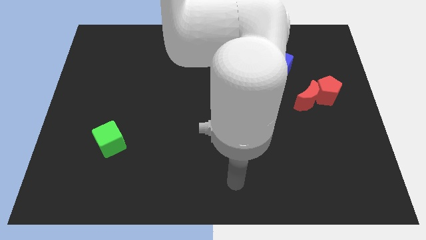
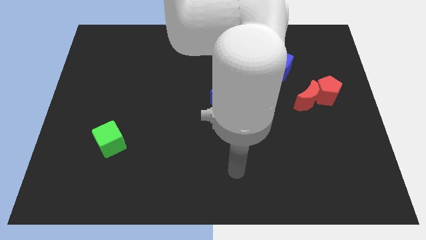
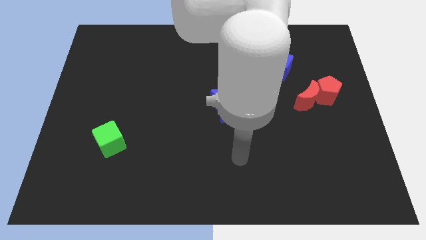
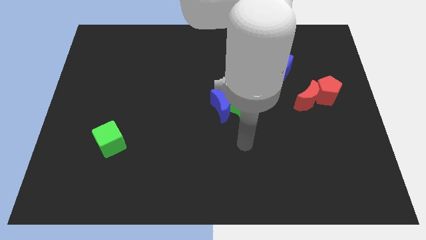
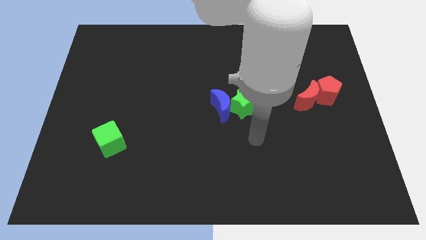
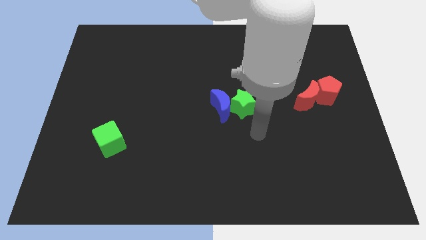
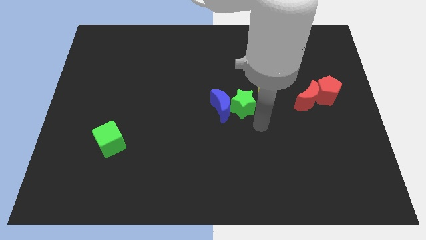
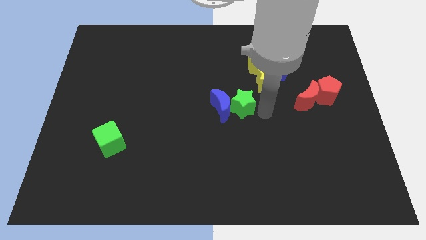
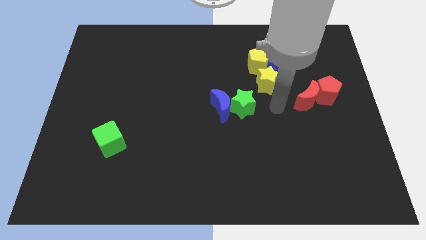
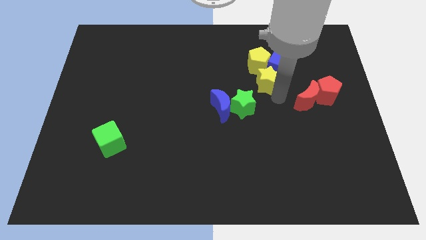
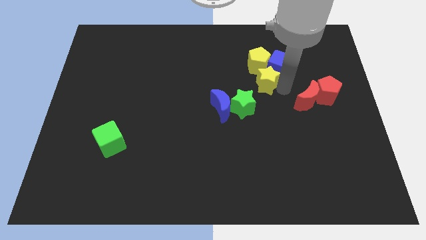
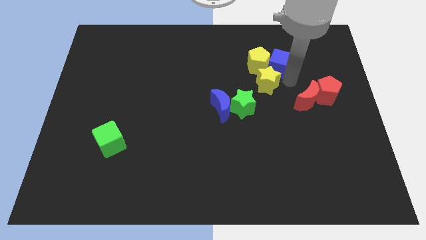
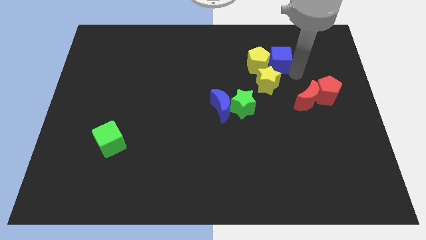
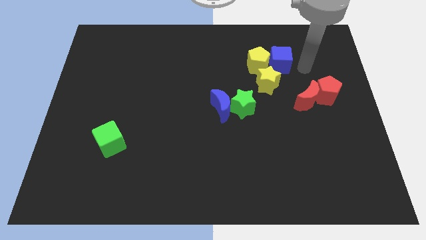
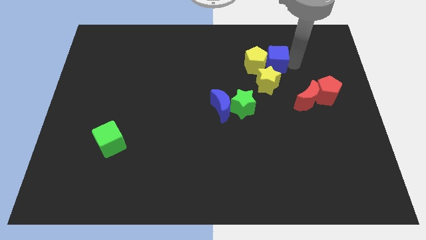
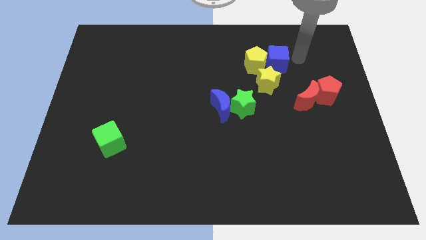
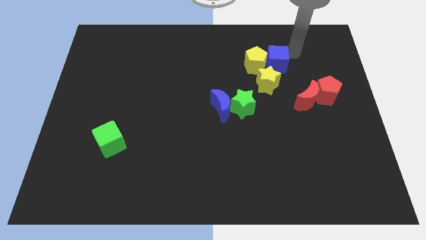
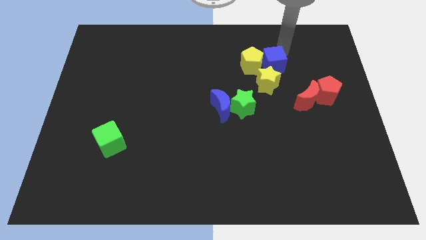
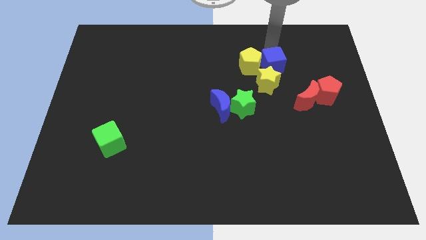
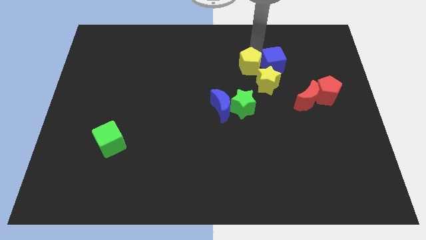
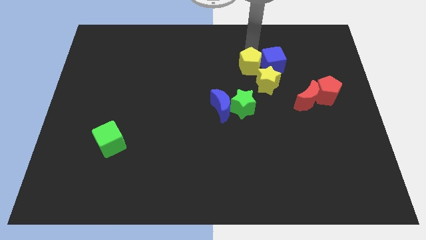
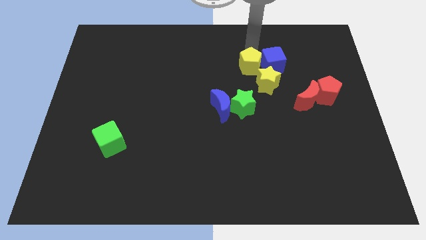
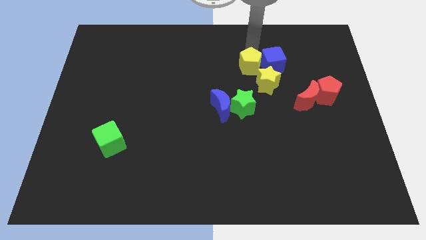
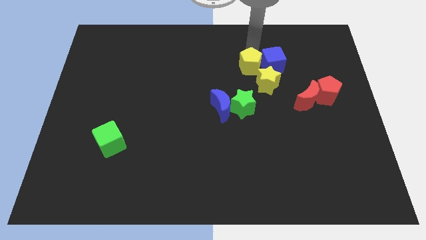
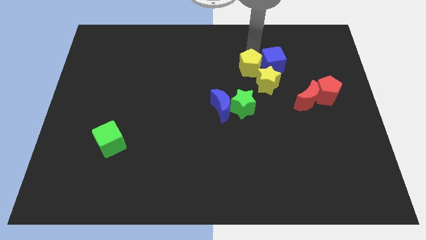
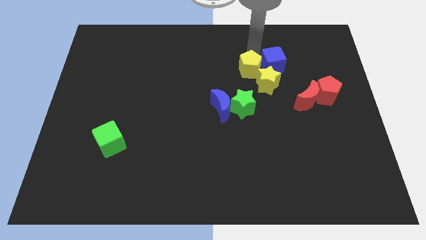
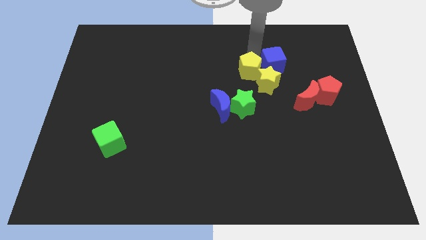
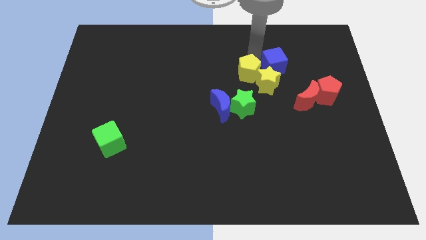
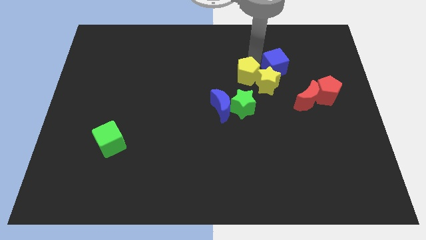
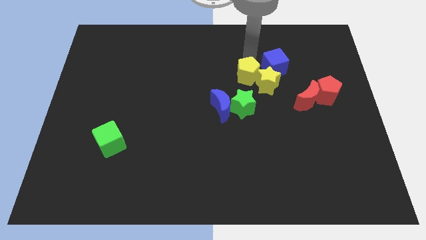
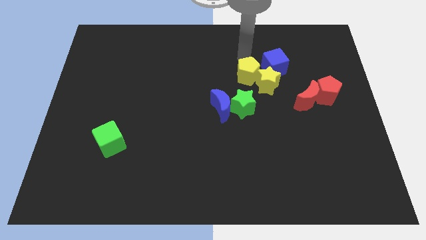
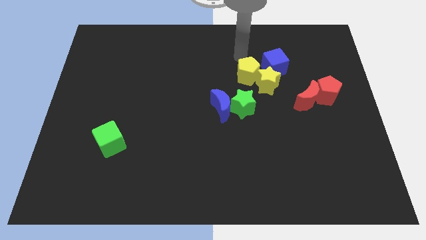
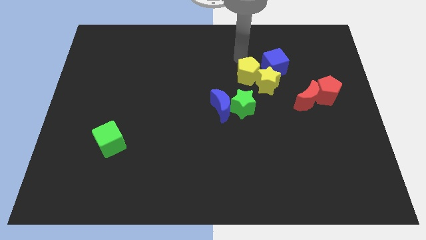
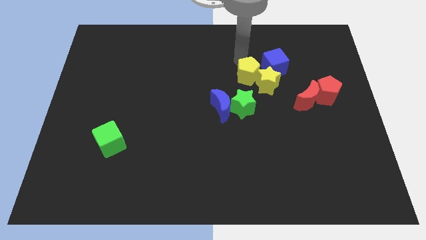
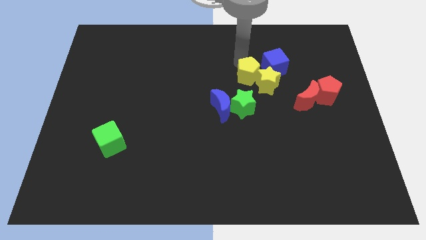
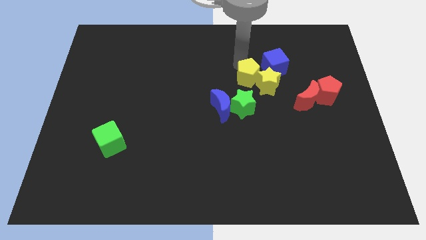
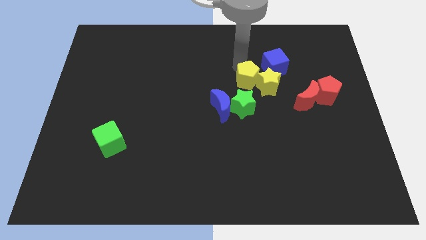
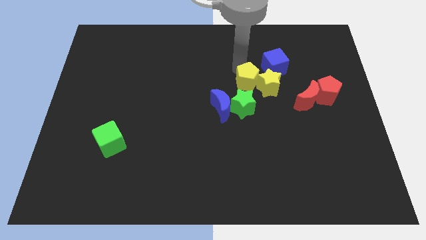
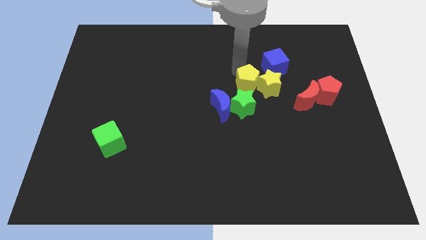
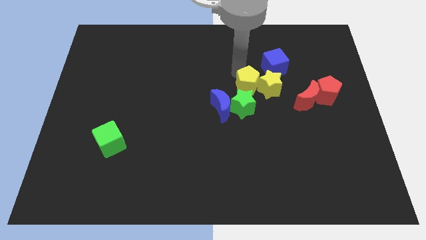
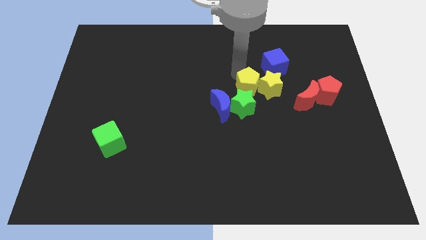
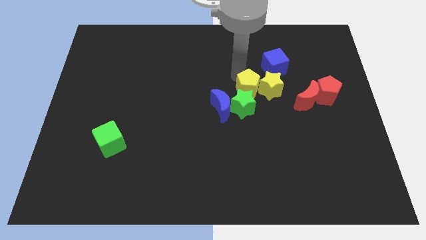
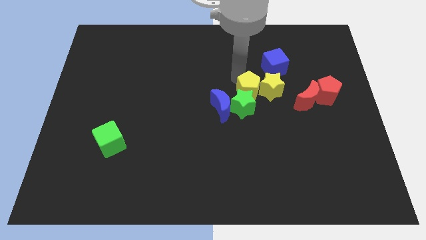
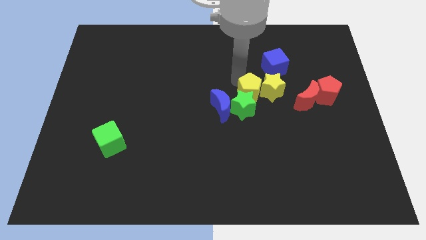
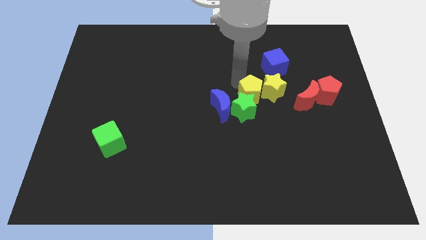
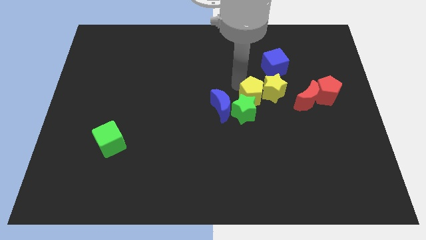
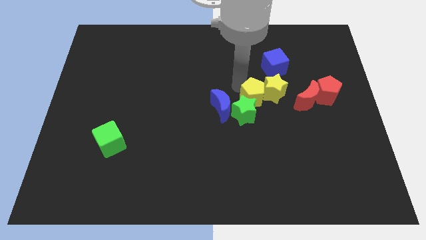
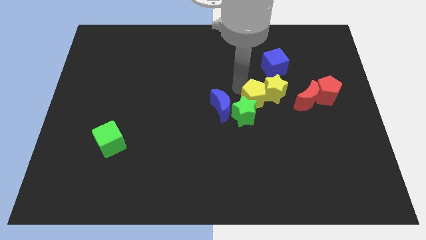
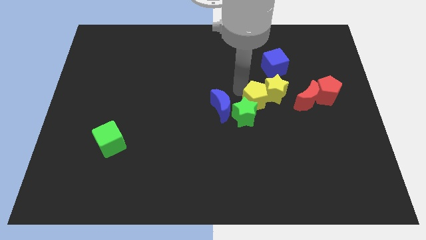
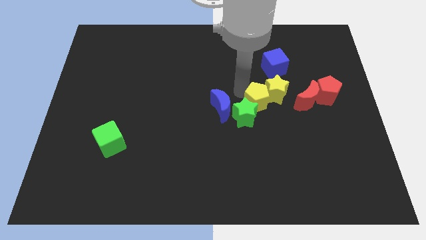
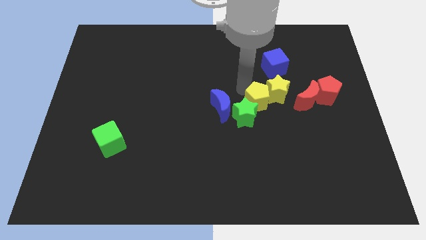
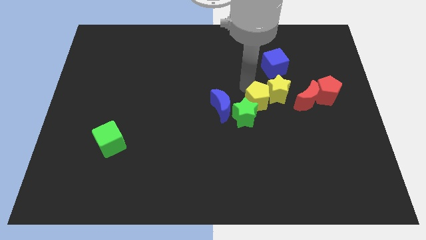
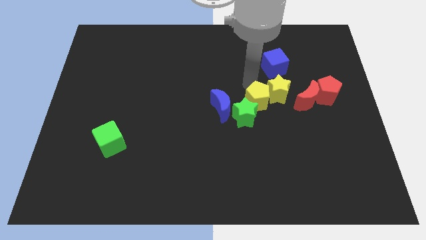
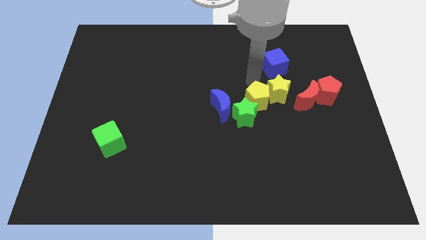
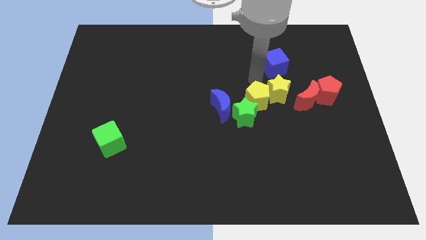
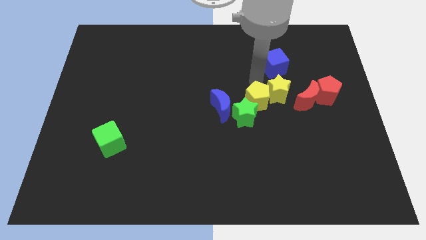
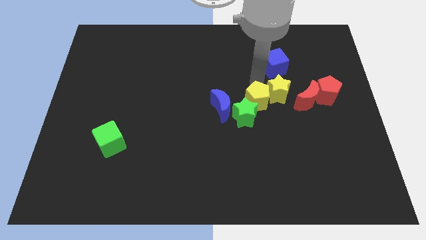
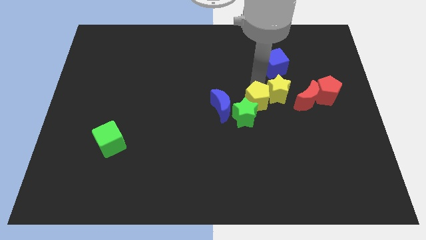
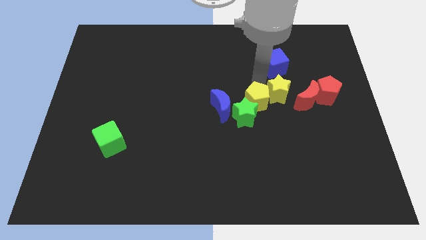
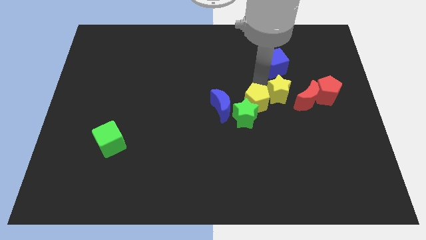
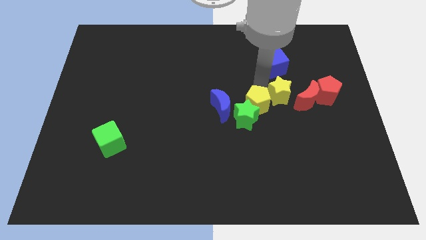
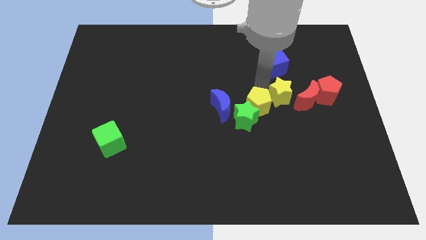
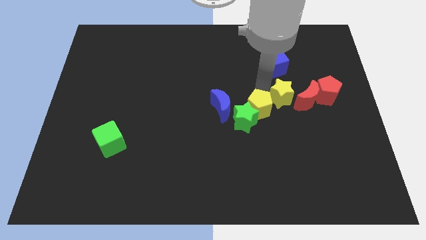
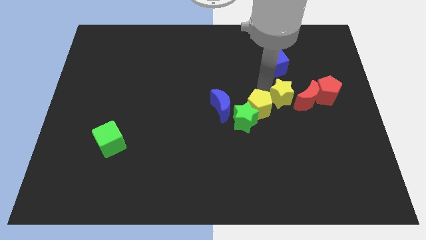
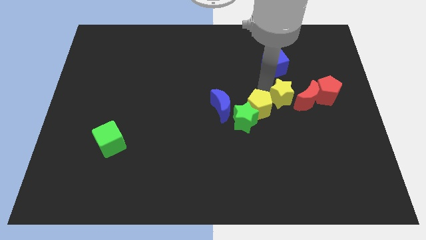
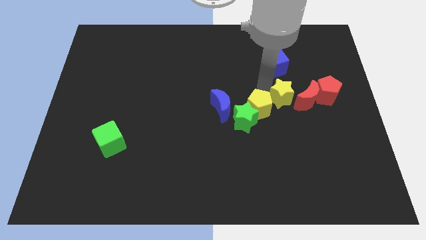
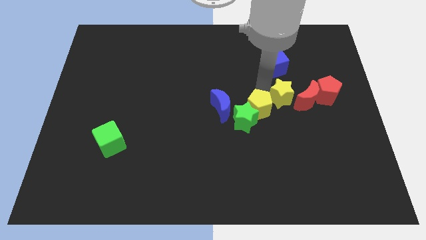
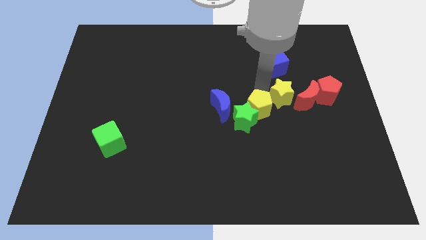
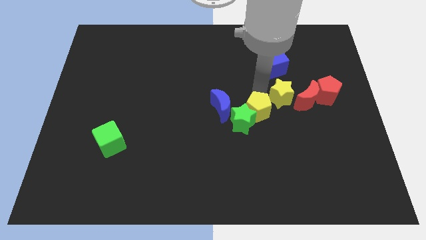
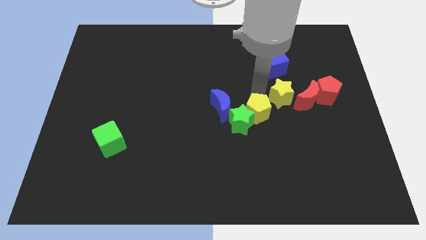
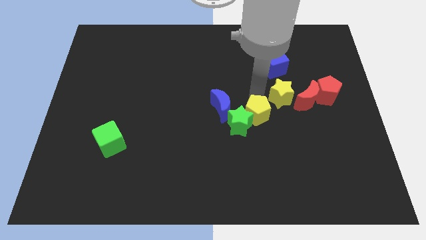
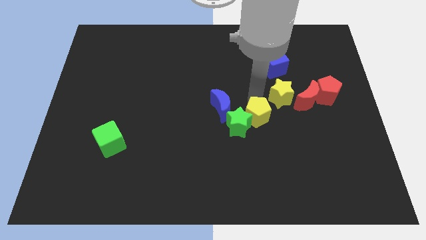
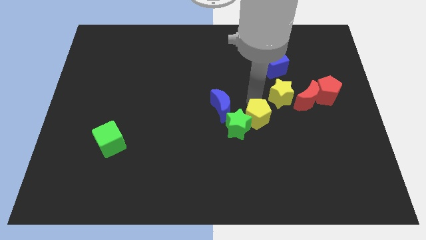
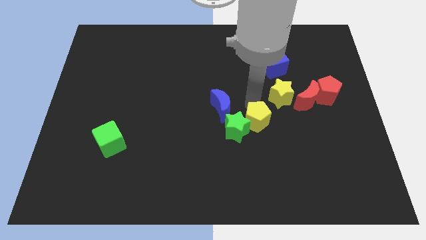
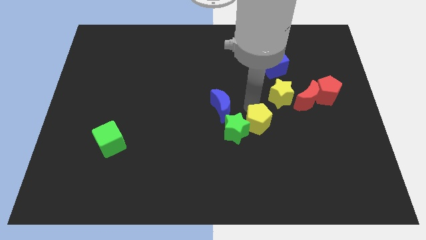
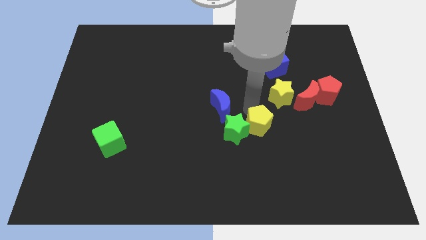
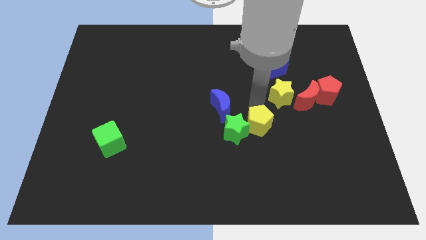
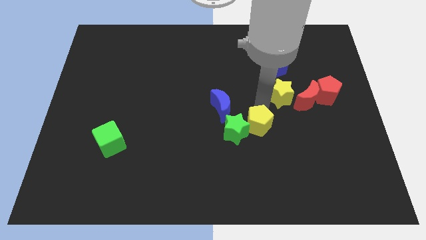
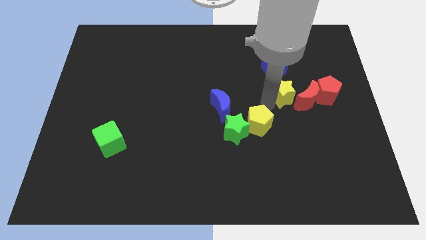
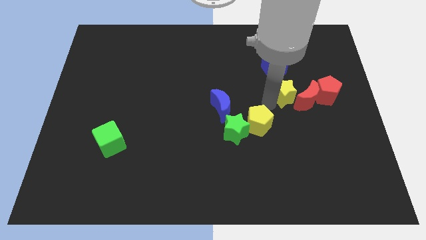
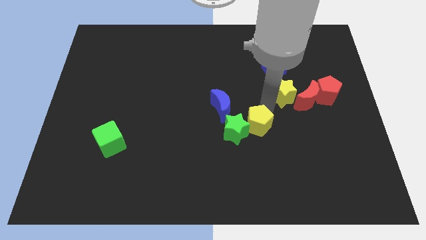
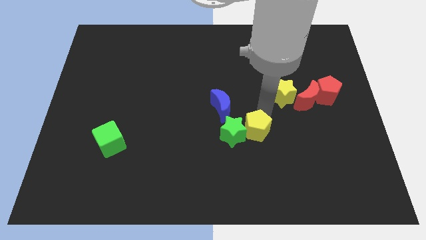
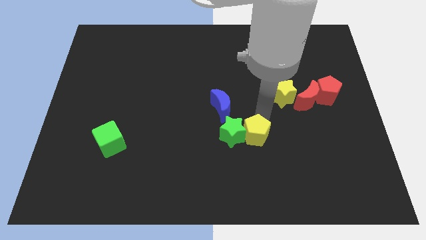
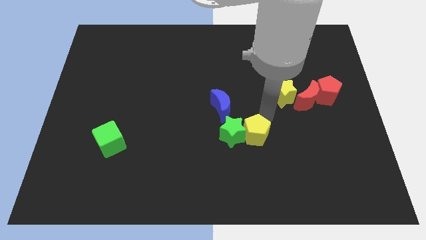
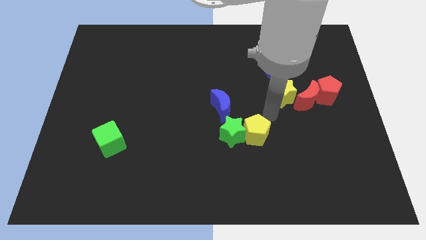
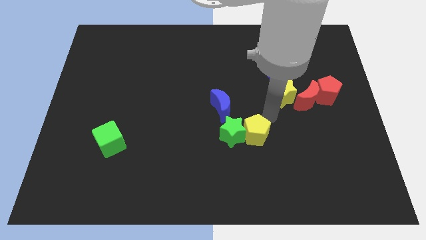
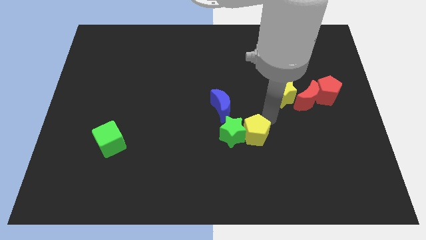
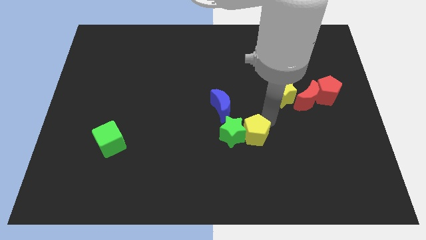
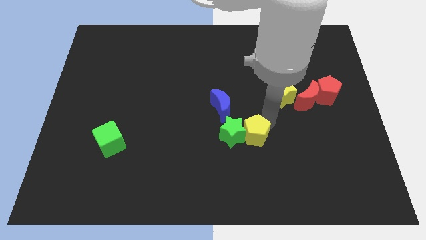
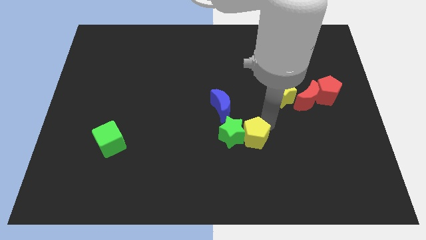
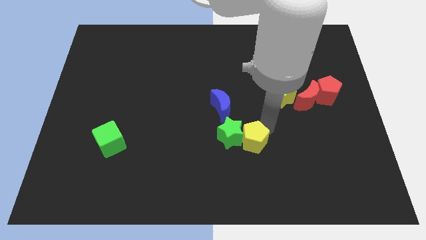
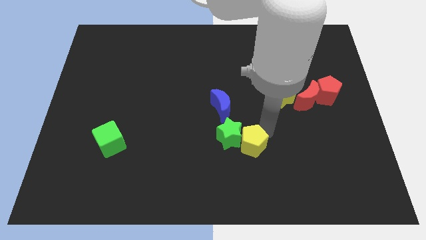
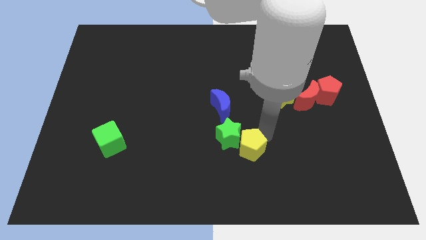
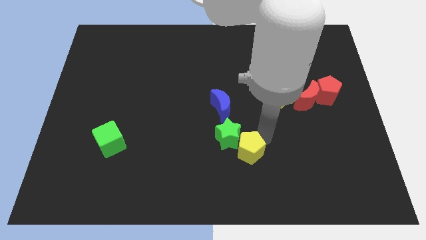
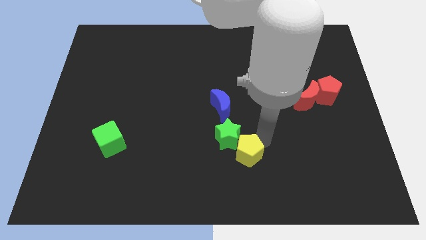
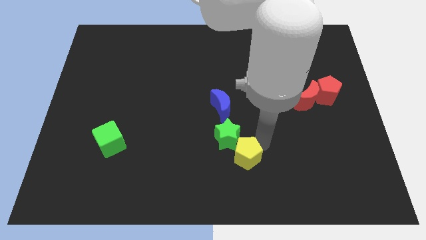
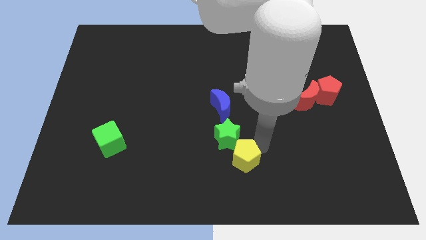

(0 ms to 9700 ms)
slide the yellow pentagon to the bottom
